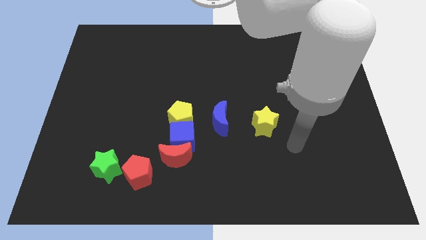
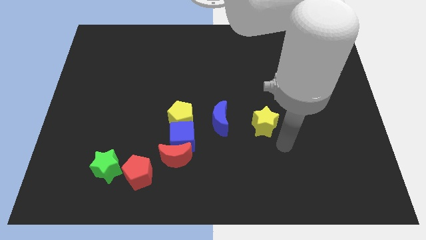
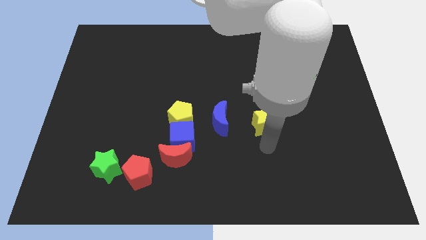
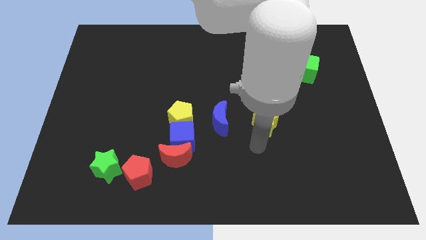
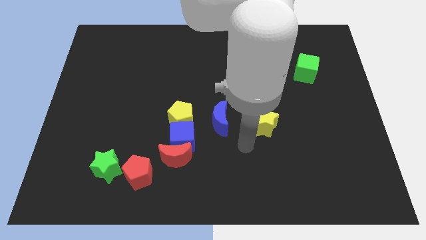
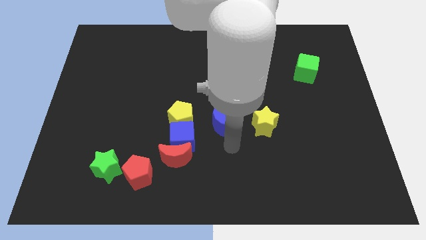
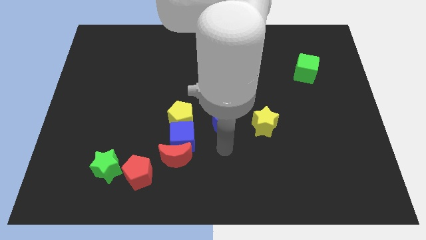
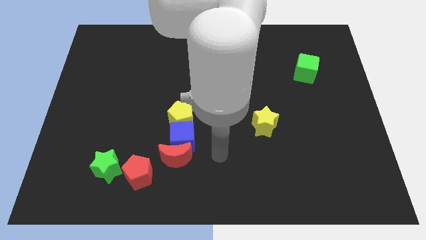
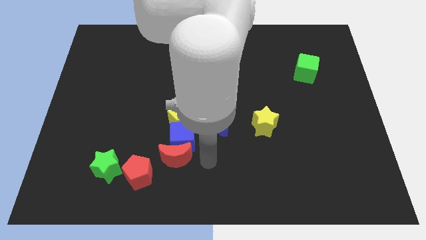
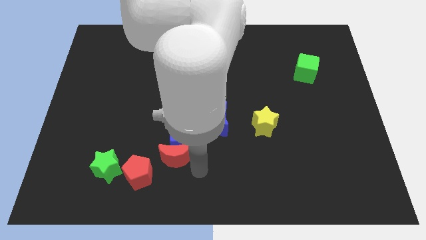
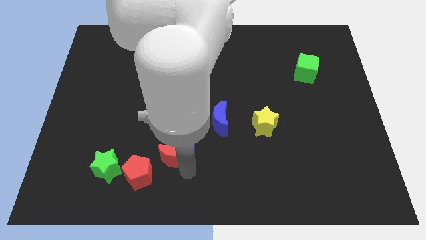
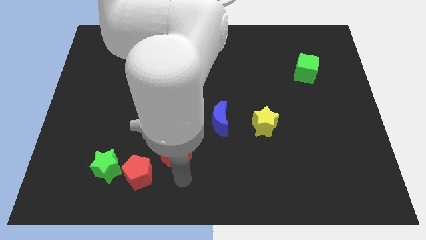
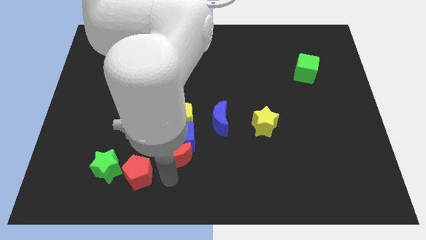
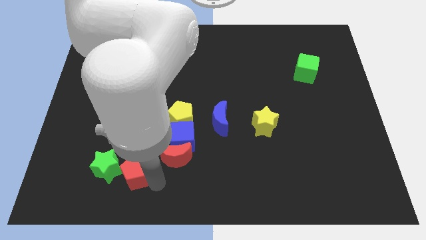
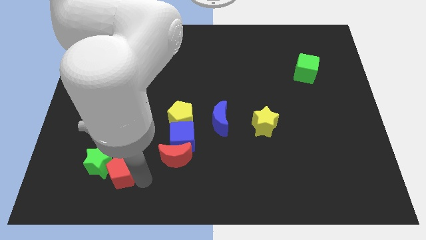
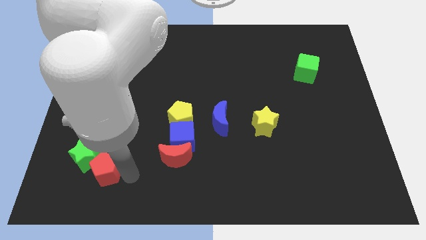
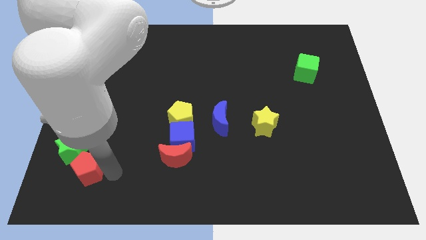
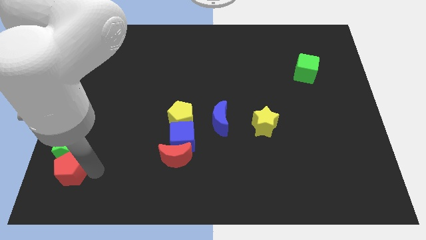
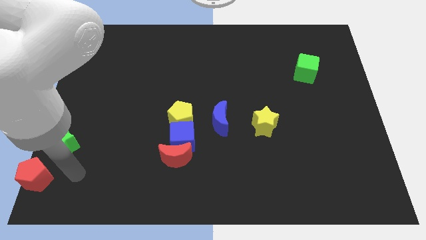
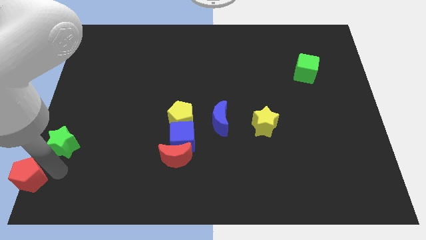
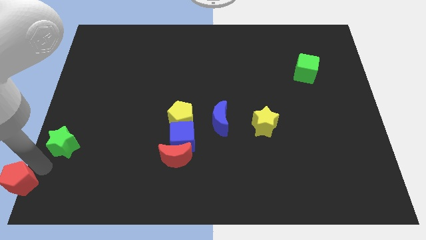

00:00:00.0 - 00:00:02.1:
separate the green star from the red pentagon

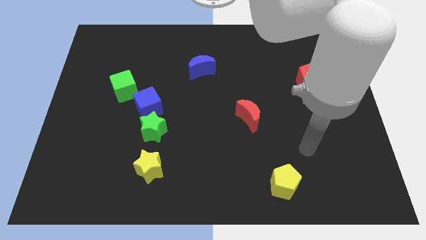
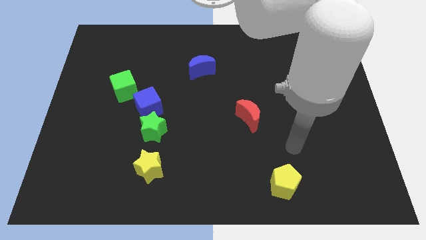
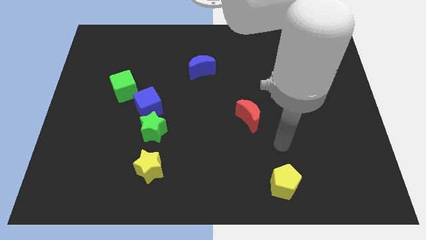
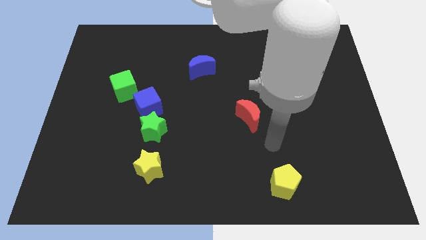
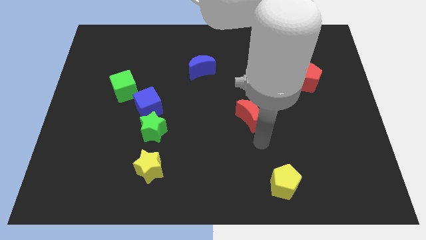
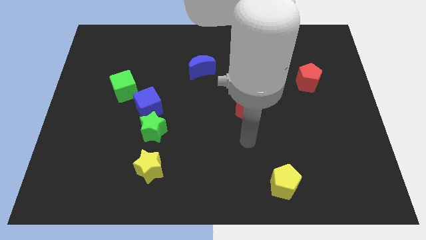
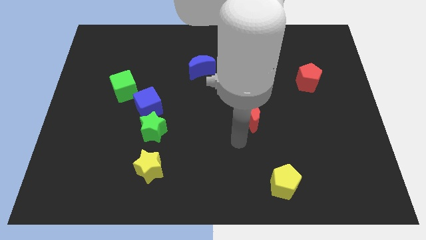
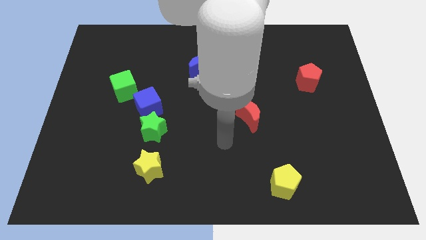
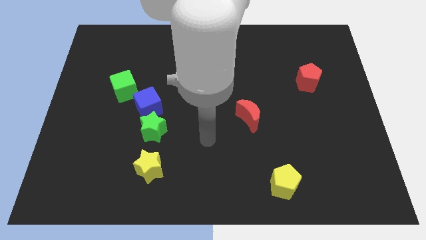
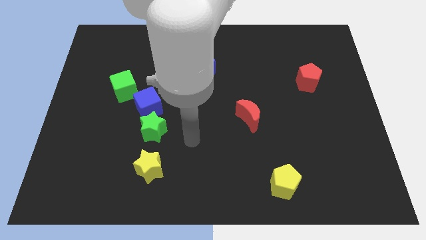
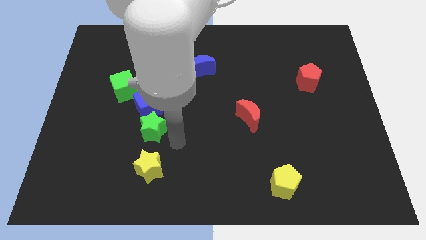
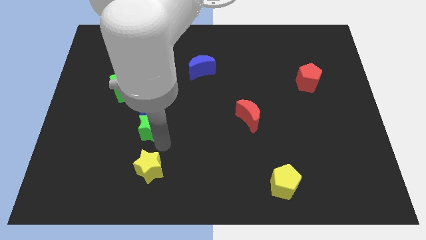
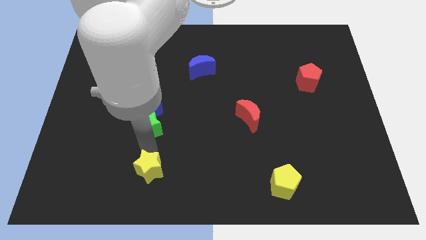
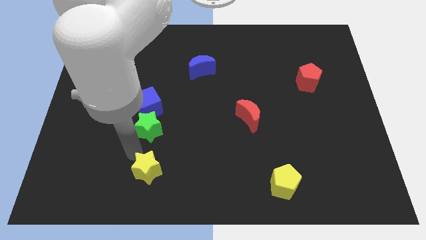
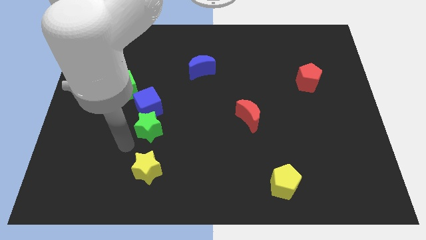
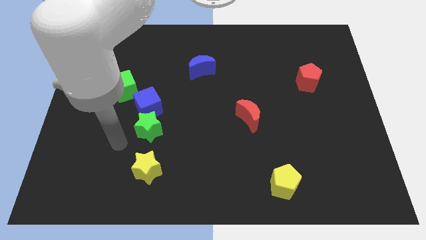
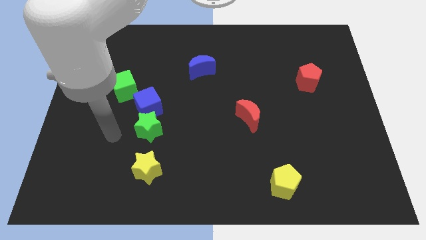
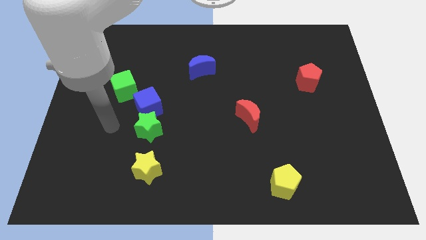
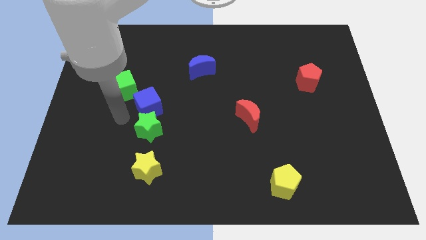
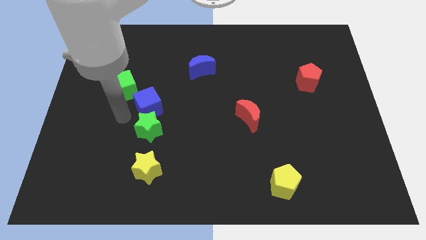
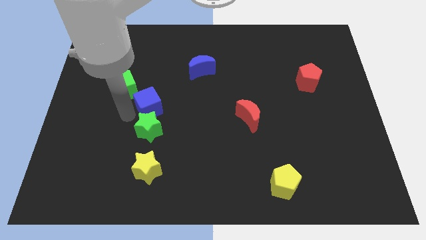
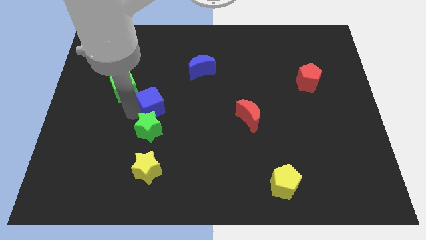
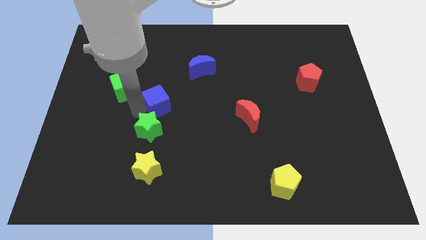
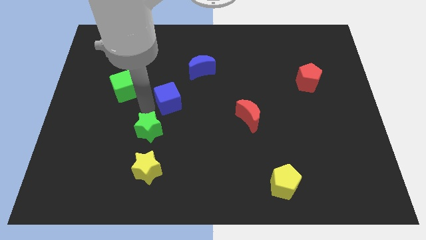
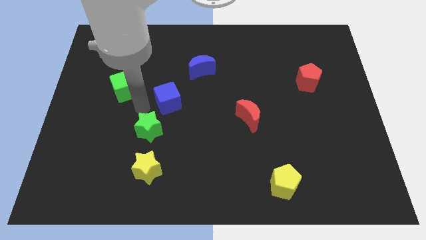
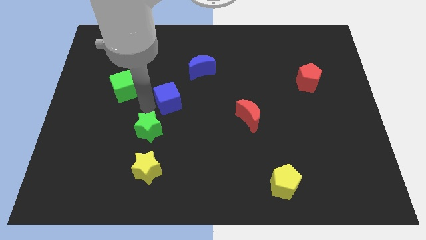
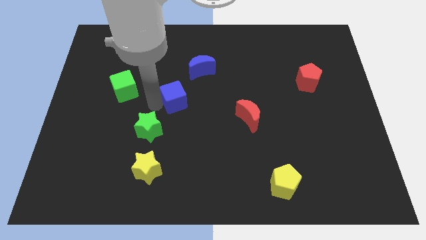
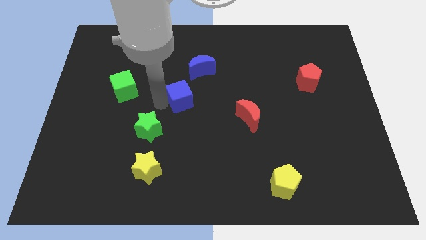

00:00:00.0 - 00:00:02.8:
separate the blue cube from the green star and green cube

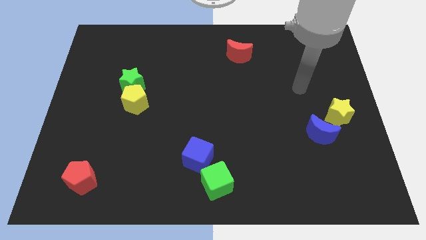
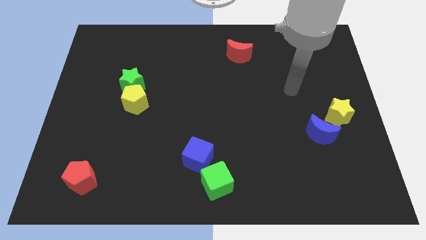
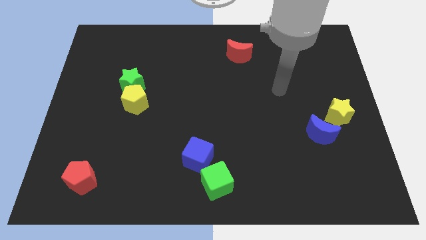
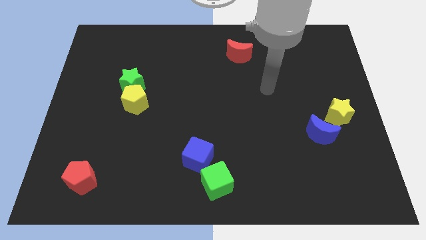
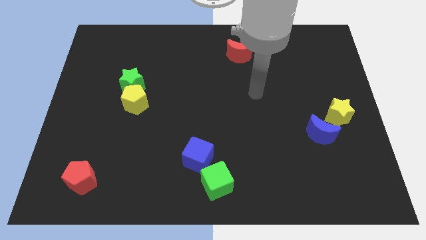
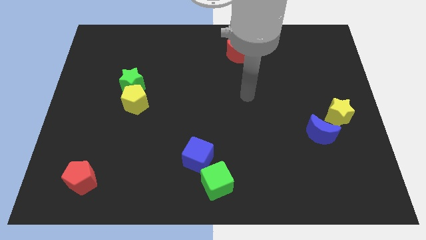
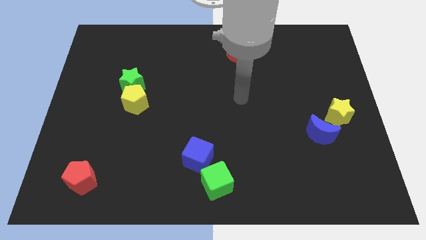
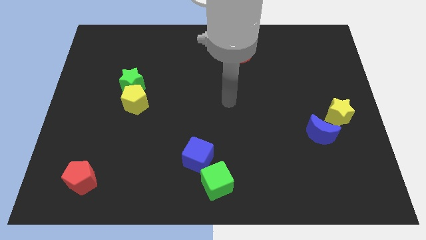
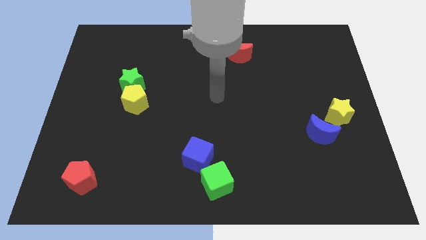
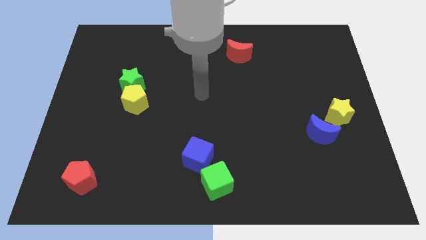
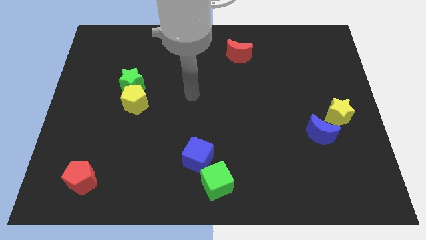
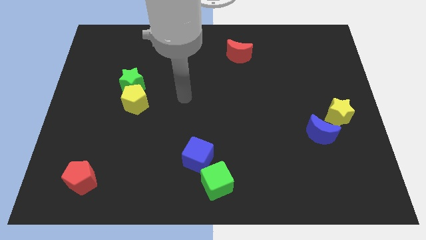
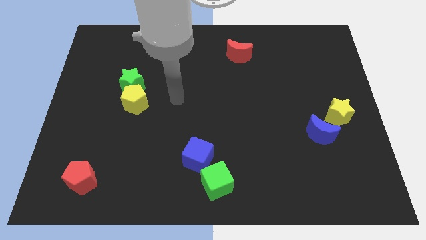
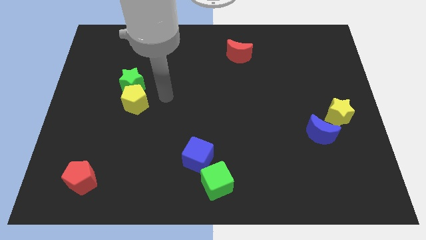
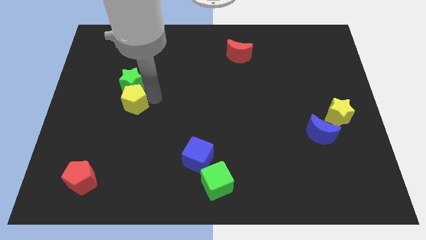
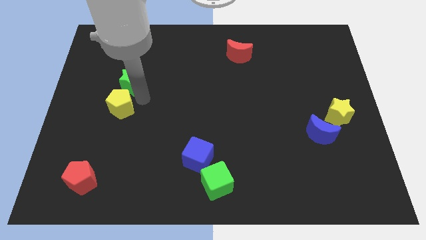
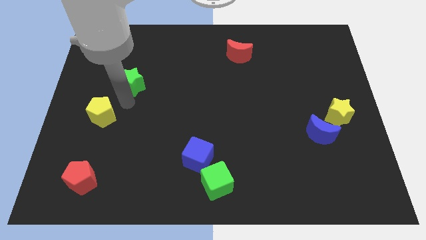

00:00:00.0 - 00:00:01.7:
pull the green star apart from the yellow pentagon

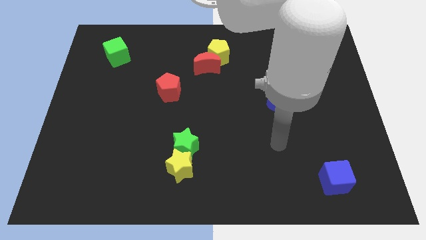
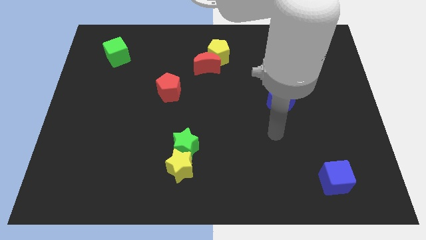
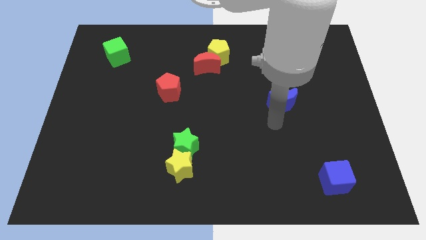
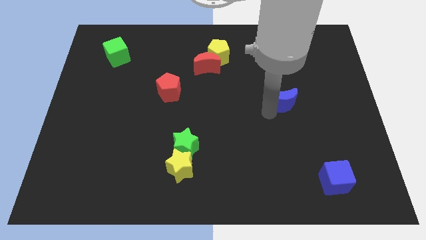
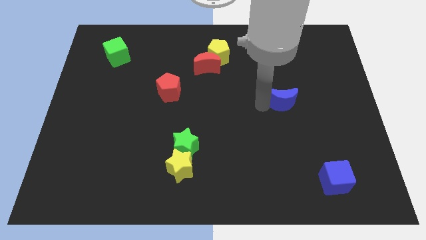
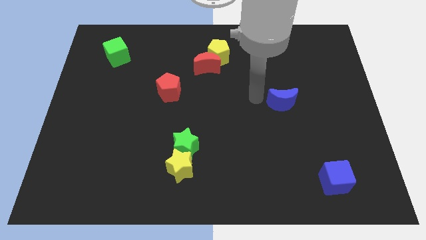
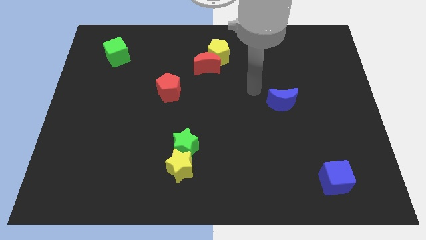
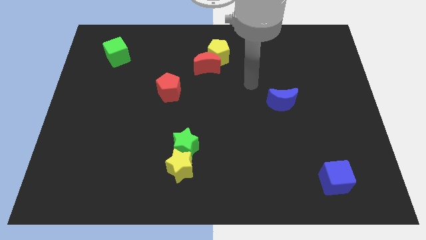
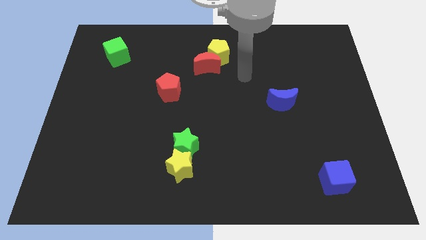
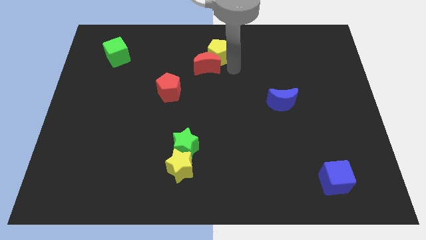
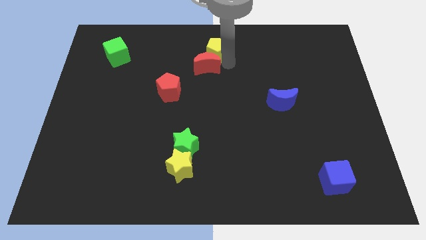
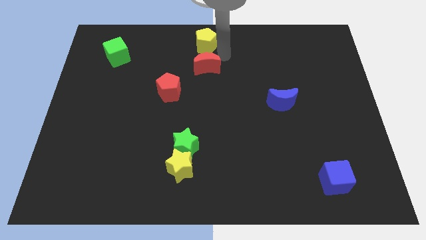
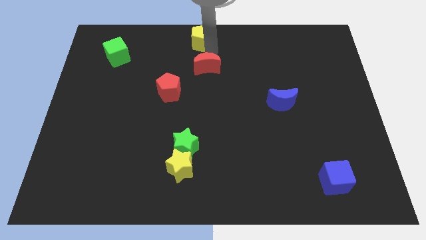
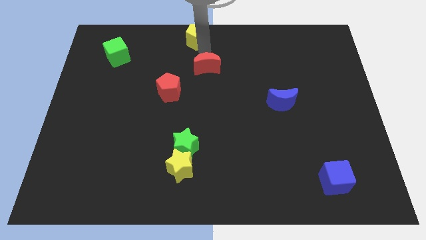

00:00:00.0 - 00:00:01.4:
move the red moon away from the yellow pentagon

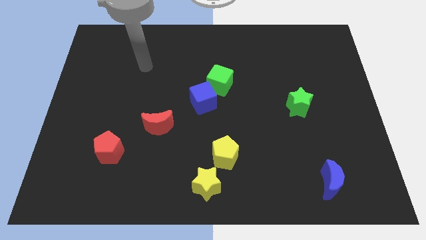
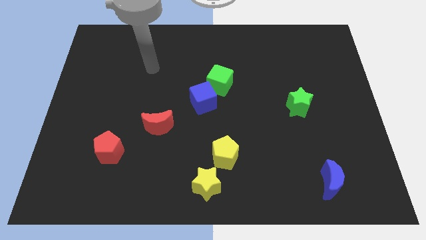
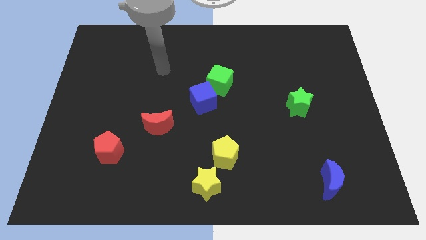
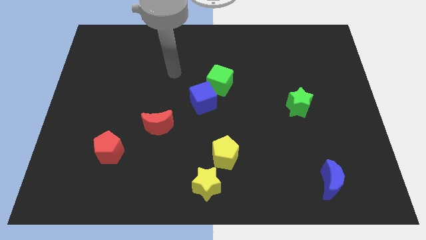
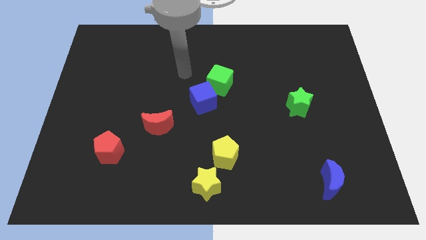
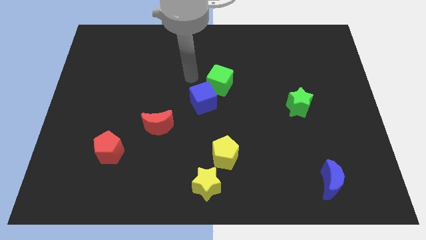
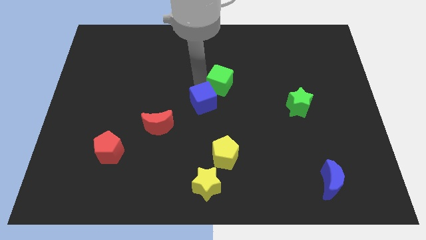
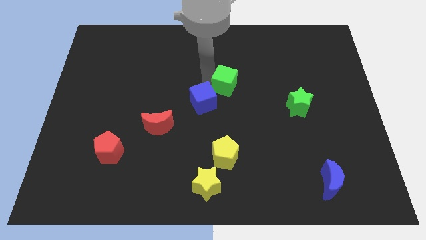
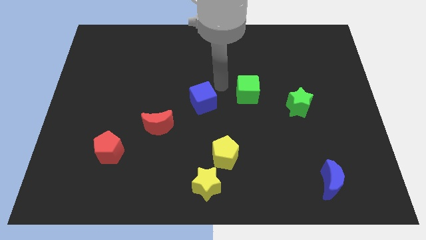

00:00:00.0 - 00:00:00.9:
pull the blue cube apart from the green cube

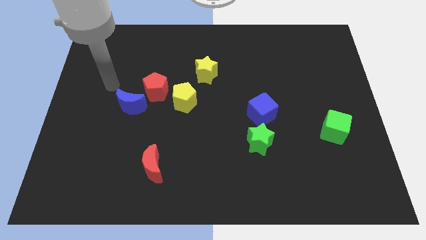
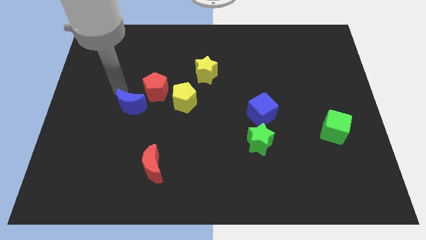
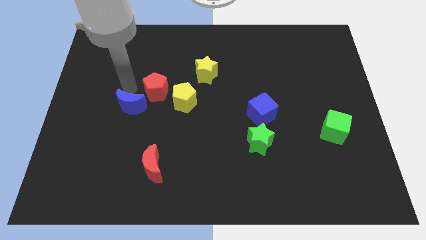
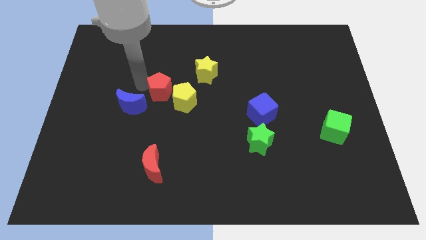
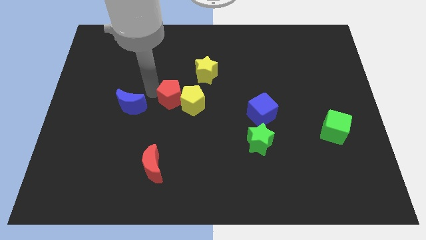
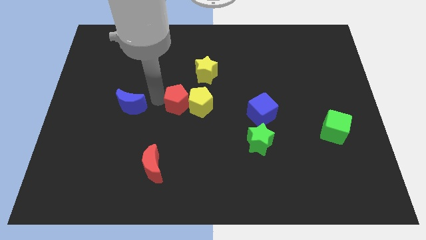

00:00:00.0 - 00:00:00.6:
move the blue moon away from the red pentagon
